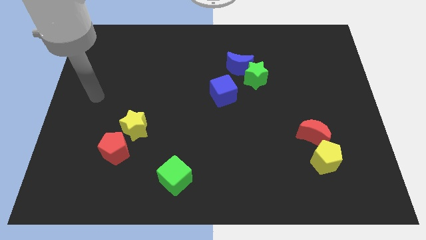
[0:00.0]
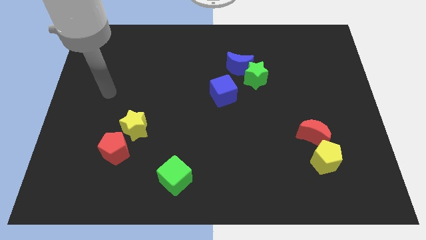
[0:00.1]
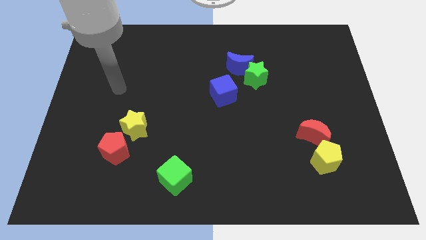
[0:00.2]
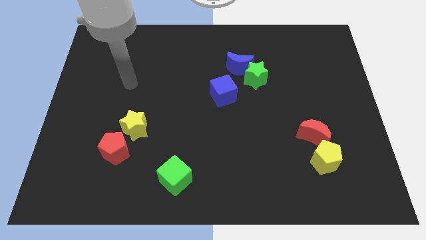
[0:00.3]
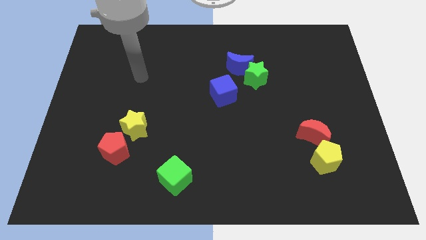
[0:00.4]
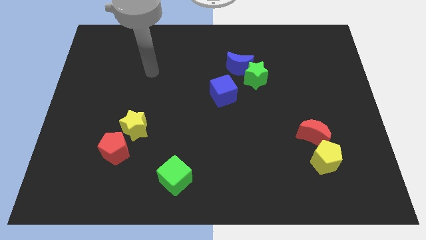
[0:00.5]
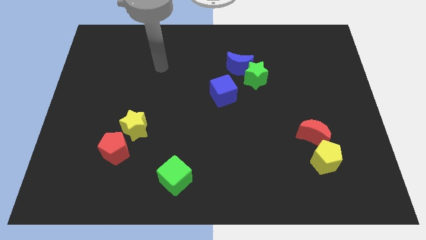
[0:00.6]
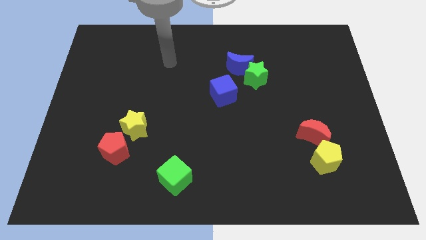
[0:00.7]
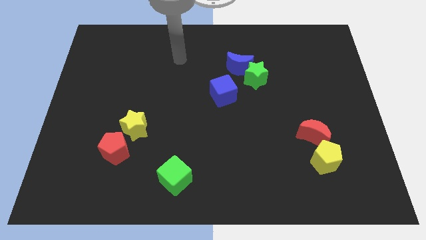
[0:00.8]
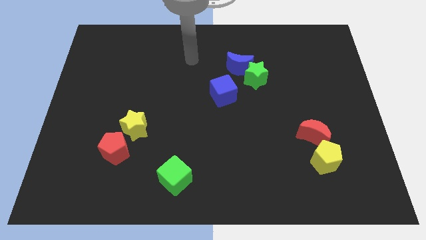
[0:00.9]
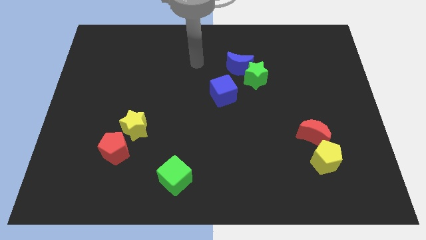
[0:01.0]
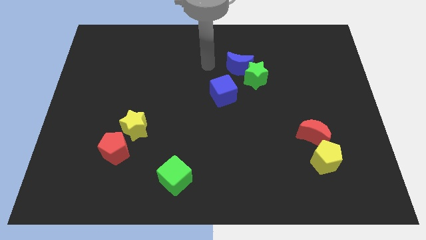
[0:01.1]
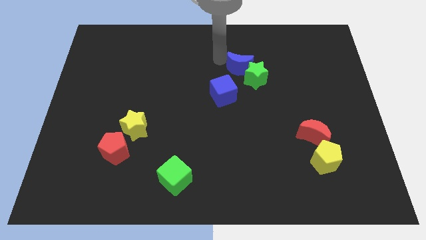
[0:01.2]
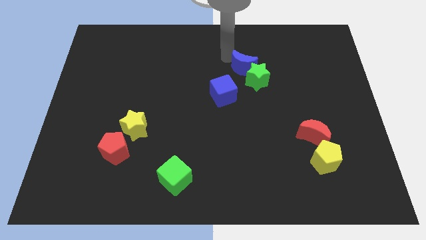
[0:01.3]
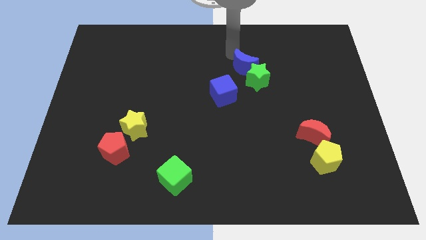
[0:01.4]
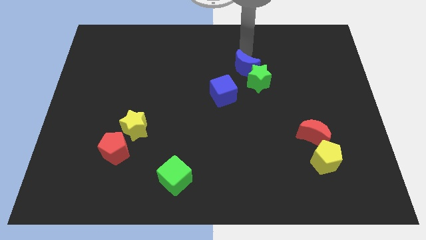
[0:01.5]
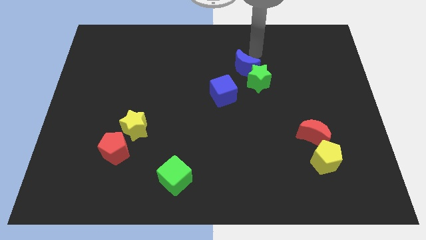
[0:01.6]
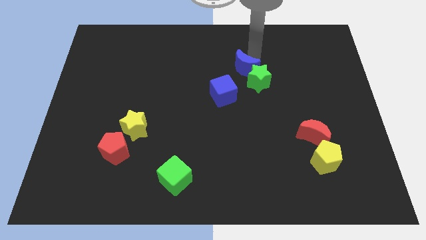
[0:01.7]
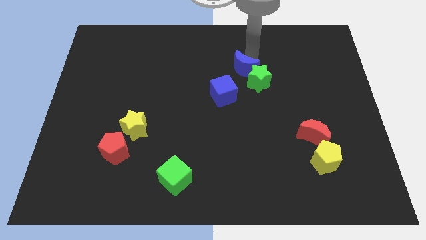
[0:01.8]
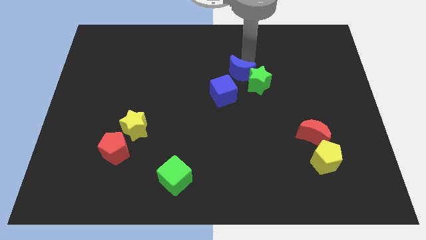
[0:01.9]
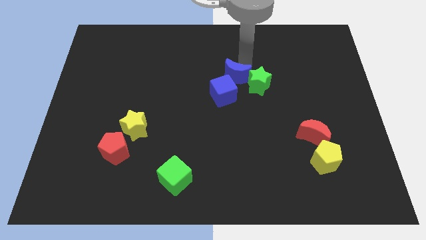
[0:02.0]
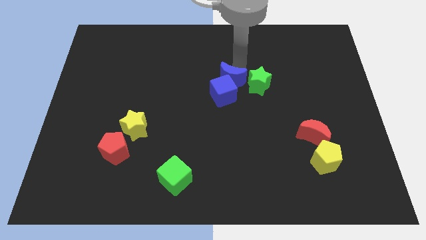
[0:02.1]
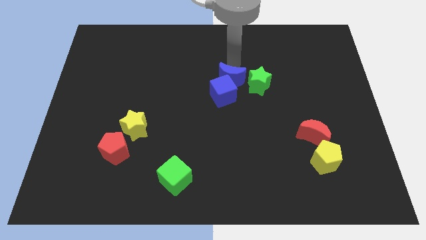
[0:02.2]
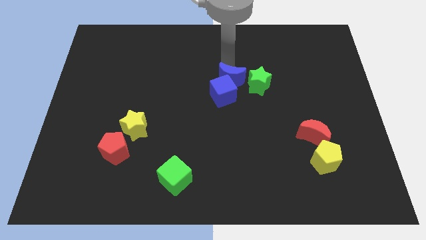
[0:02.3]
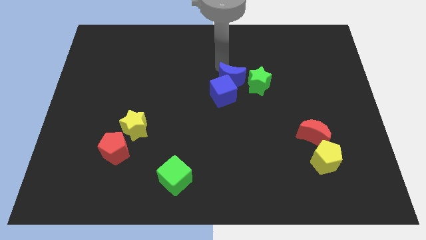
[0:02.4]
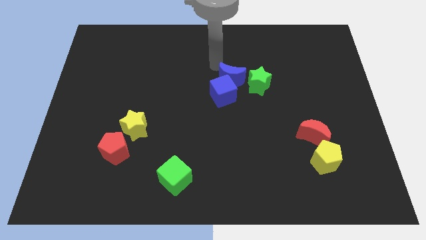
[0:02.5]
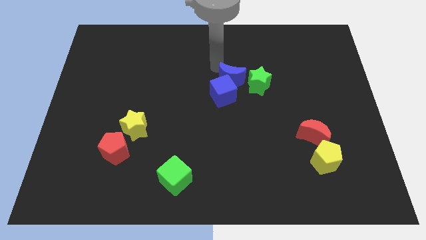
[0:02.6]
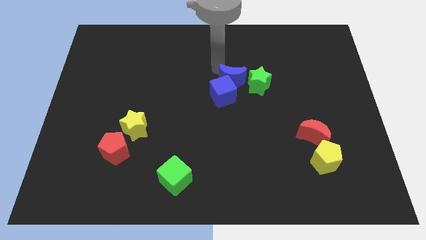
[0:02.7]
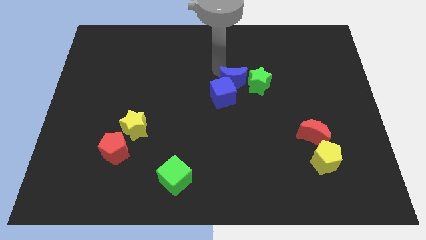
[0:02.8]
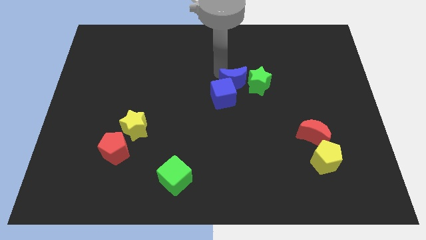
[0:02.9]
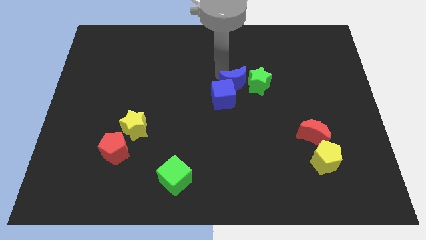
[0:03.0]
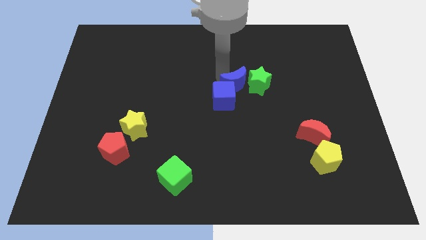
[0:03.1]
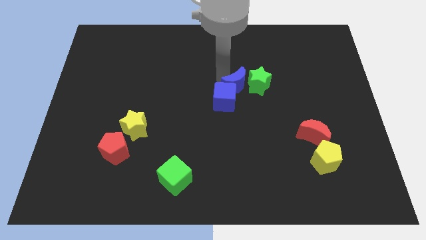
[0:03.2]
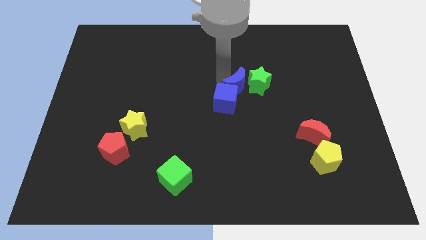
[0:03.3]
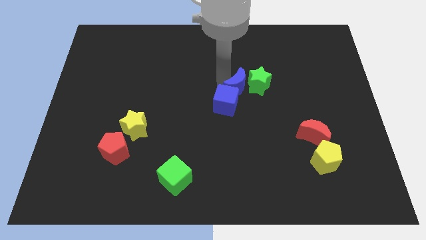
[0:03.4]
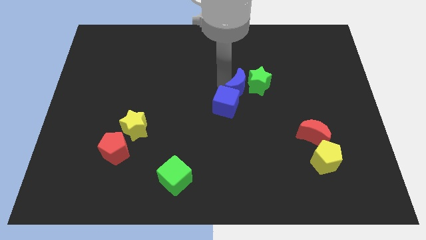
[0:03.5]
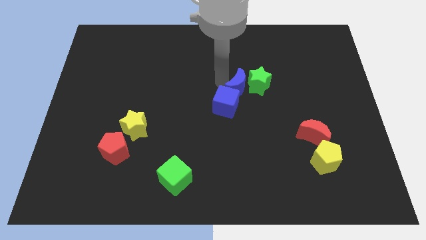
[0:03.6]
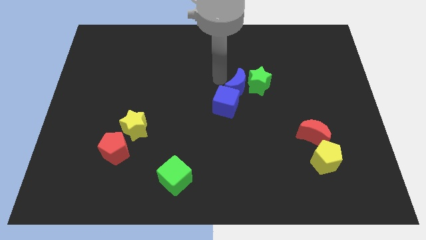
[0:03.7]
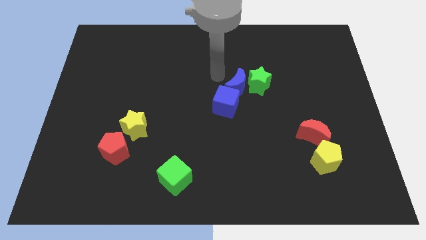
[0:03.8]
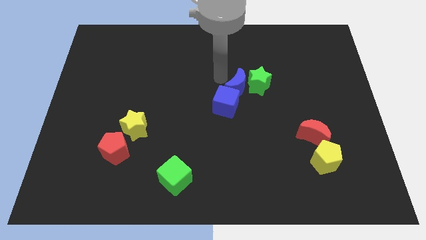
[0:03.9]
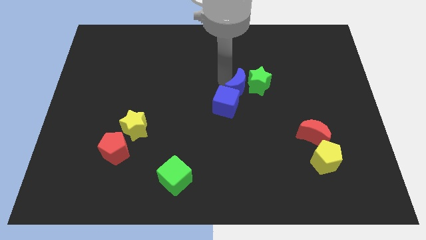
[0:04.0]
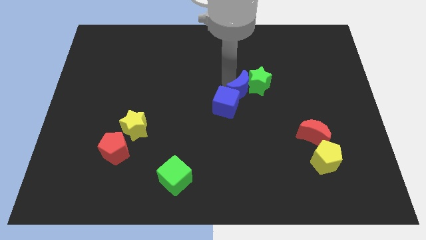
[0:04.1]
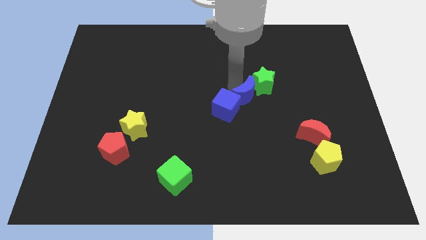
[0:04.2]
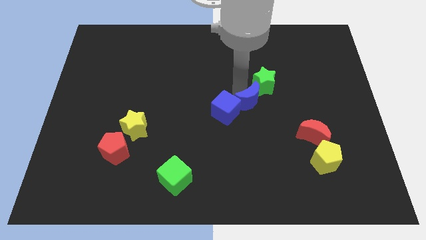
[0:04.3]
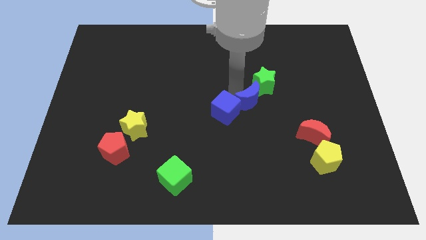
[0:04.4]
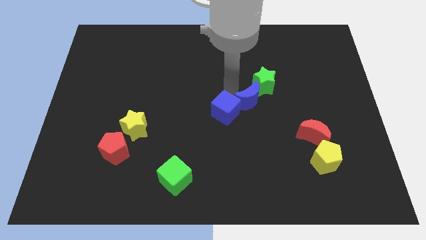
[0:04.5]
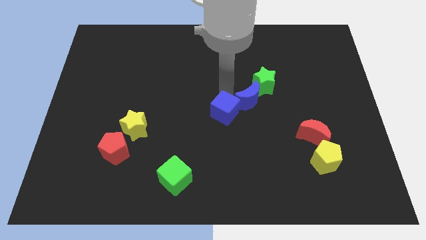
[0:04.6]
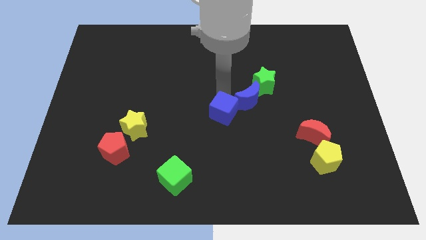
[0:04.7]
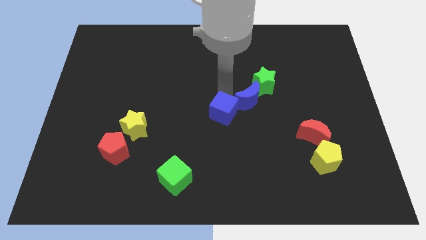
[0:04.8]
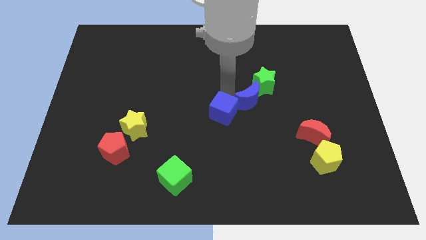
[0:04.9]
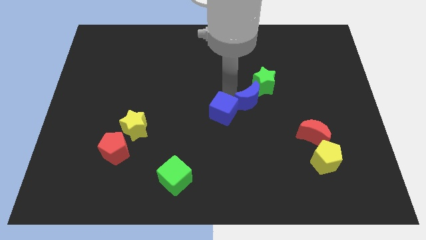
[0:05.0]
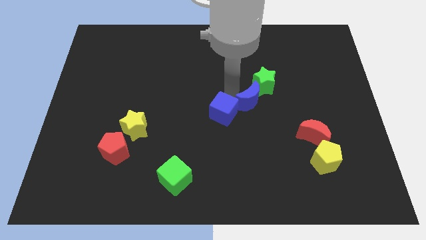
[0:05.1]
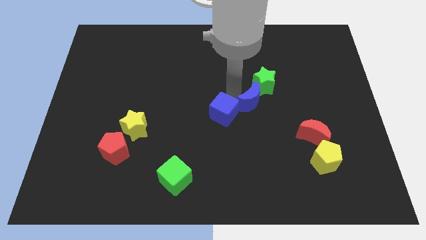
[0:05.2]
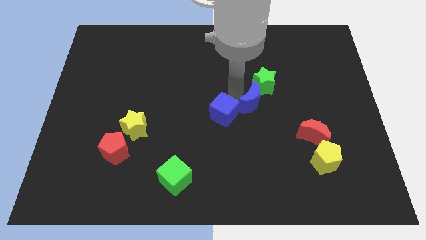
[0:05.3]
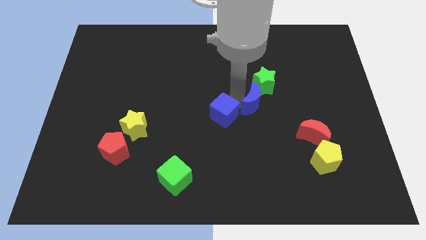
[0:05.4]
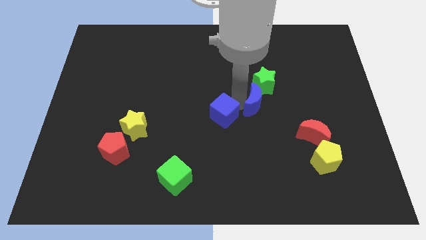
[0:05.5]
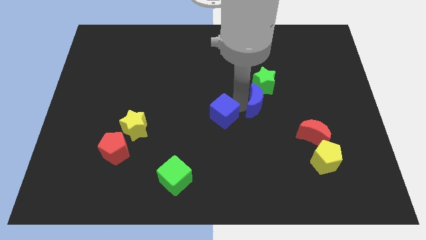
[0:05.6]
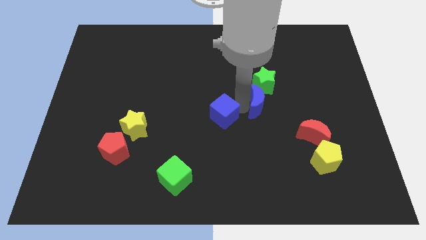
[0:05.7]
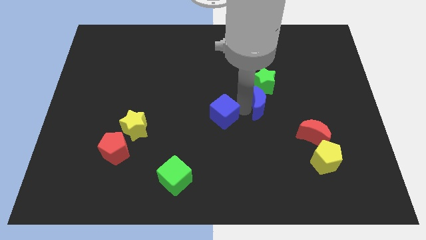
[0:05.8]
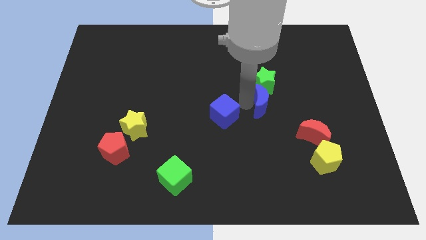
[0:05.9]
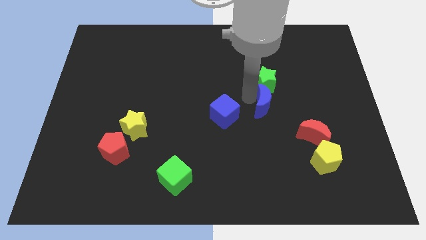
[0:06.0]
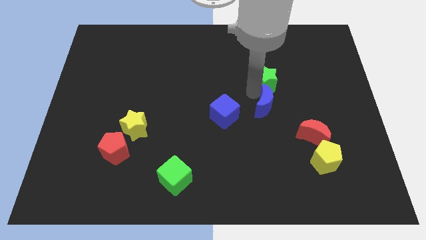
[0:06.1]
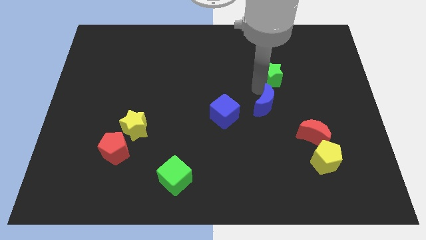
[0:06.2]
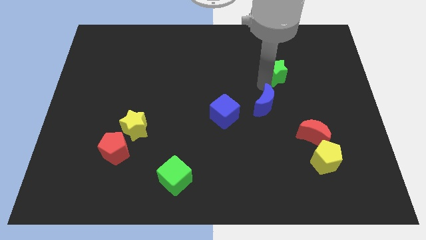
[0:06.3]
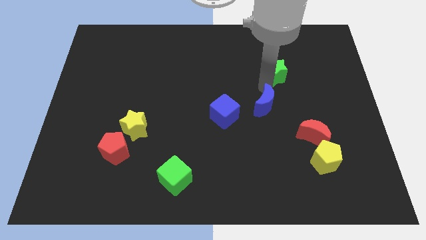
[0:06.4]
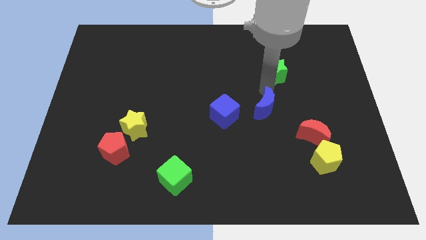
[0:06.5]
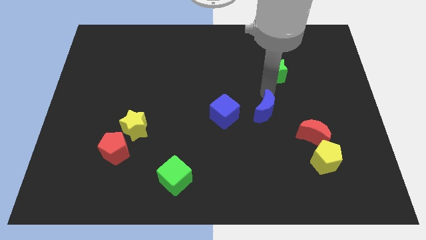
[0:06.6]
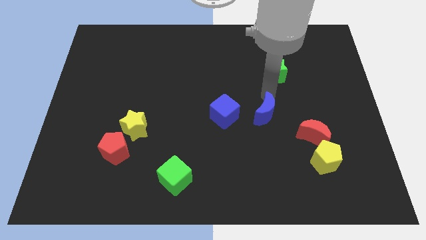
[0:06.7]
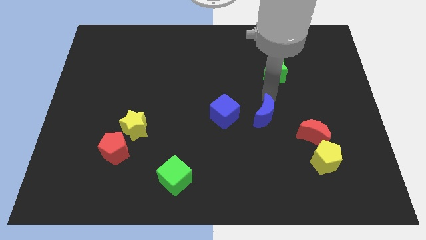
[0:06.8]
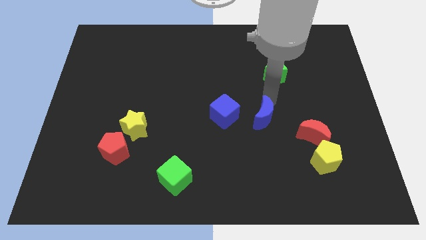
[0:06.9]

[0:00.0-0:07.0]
slide the blue moon to the left of the red moon
